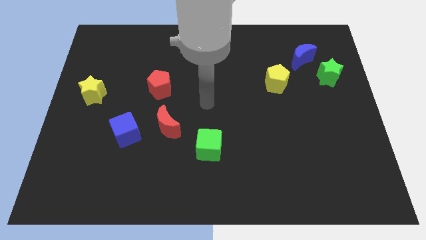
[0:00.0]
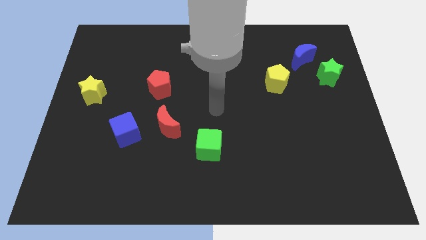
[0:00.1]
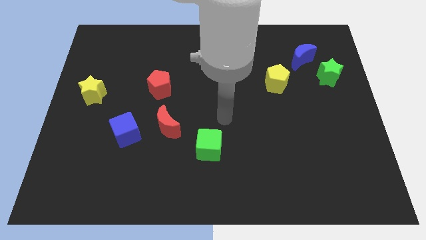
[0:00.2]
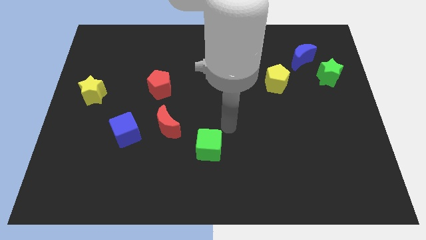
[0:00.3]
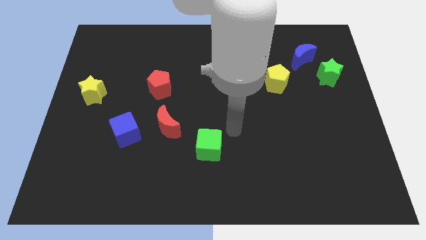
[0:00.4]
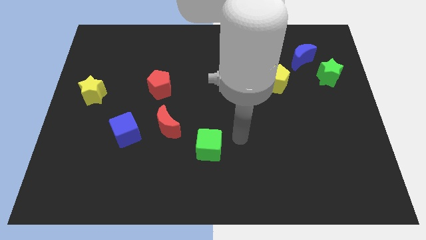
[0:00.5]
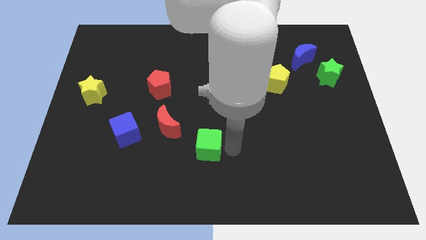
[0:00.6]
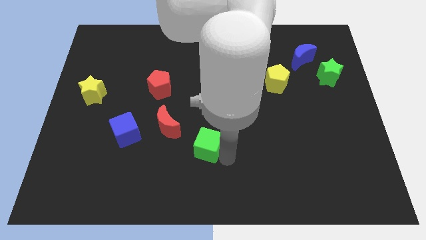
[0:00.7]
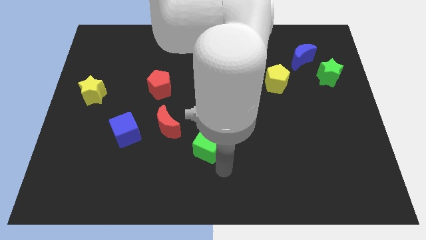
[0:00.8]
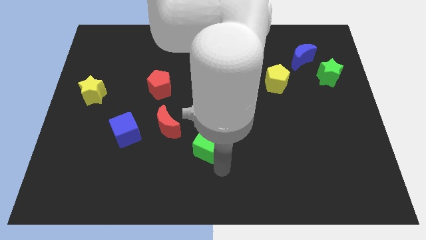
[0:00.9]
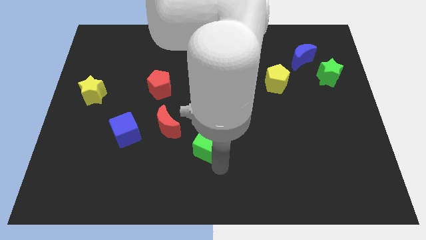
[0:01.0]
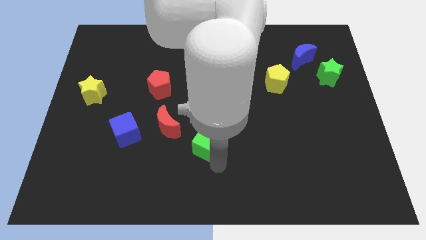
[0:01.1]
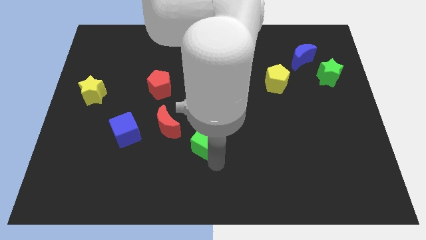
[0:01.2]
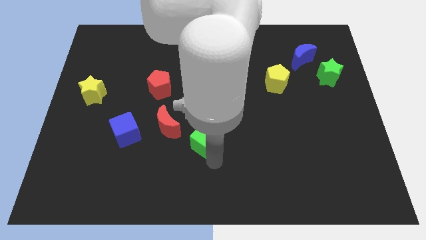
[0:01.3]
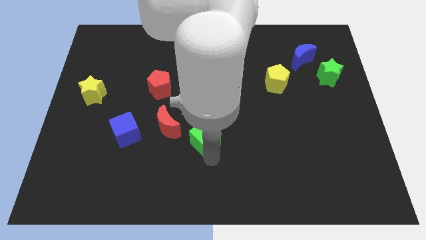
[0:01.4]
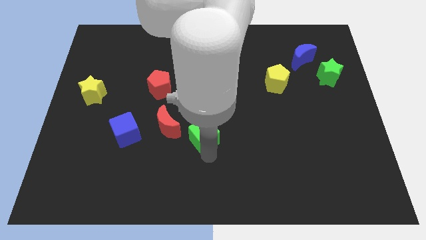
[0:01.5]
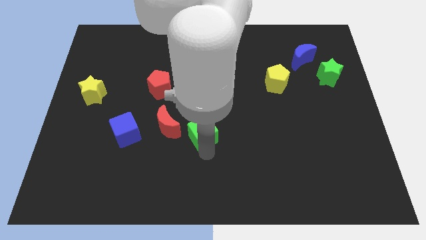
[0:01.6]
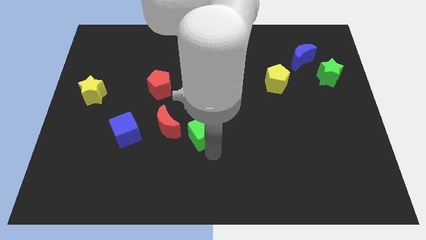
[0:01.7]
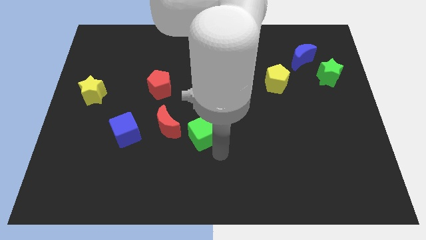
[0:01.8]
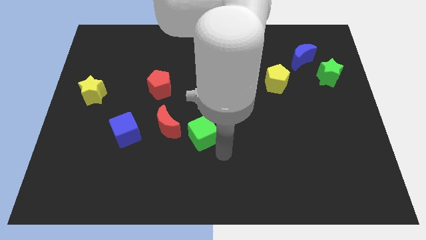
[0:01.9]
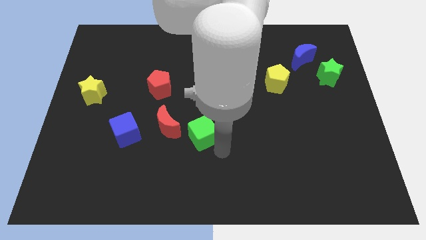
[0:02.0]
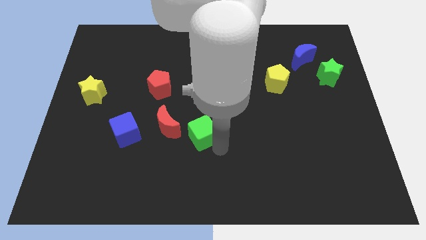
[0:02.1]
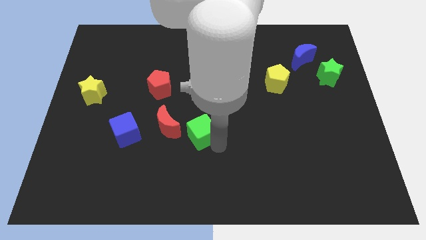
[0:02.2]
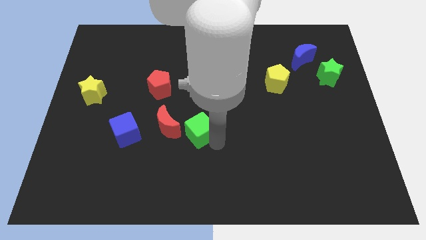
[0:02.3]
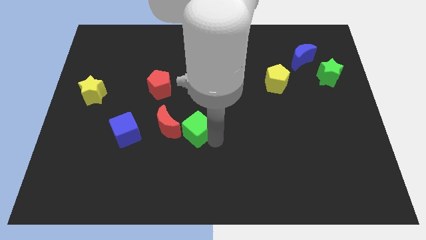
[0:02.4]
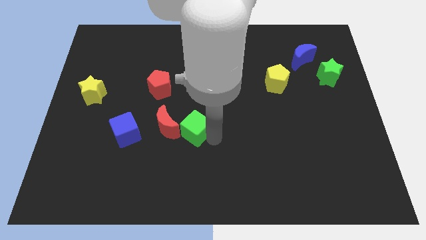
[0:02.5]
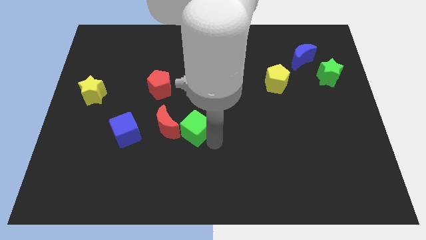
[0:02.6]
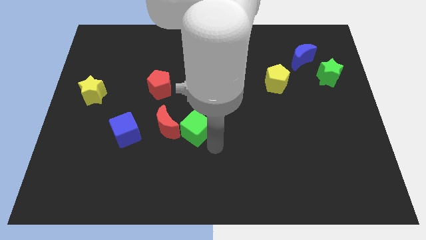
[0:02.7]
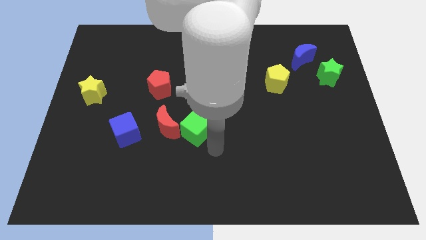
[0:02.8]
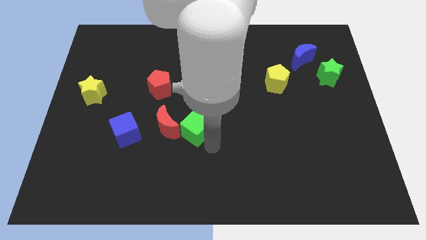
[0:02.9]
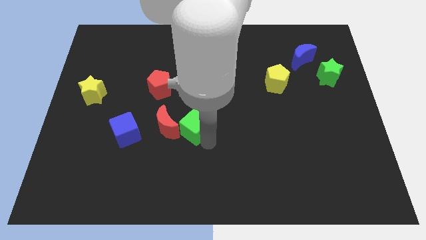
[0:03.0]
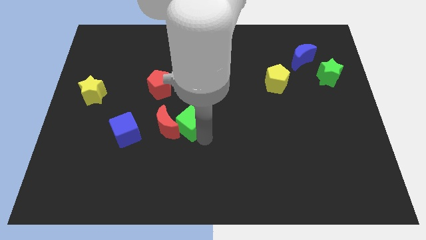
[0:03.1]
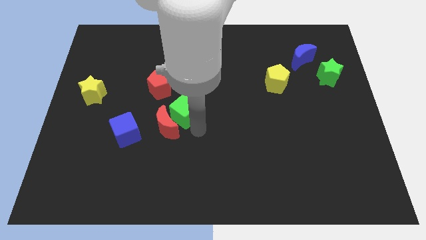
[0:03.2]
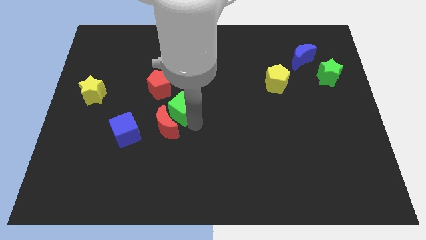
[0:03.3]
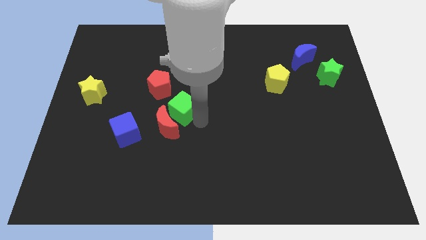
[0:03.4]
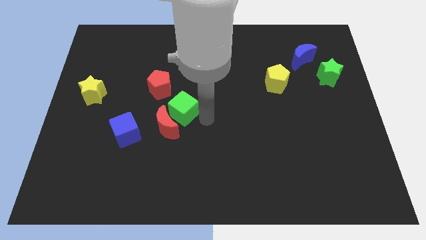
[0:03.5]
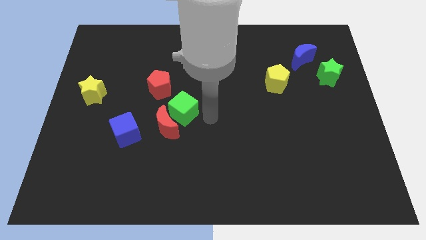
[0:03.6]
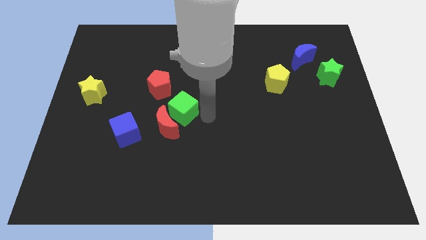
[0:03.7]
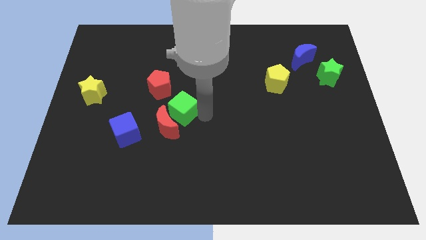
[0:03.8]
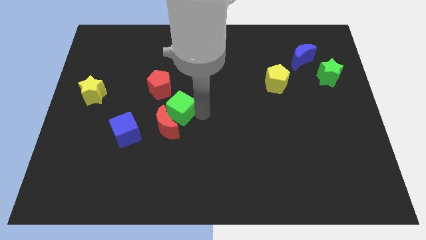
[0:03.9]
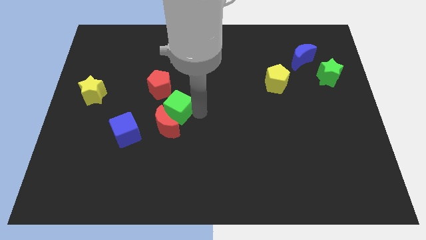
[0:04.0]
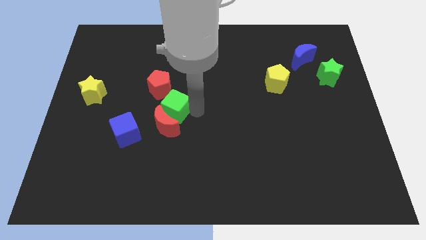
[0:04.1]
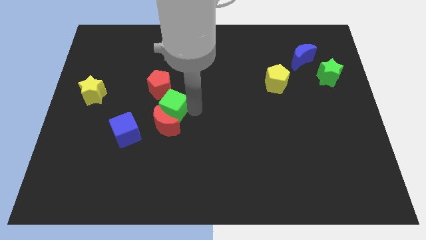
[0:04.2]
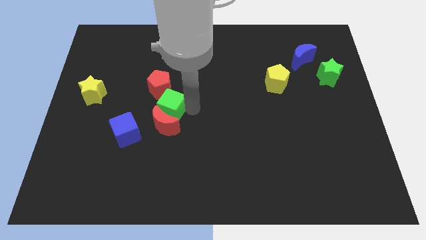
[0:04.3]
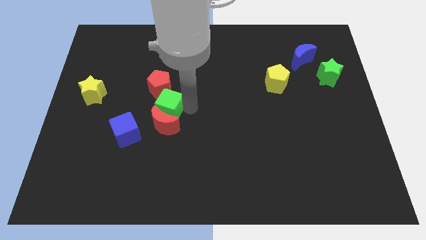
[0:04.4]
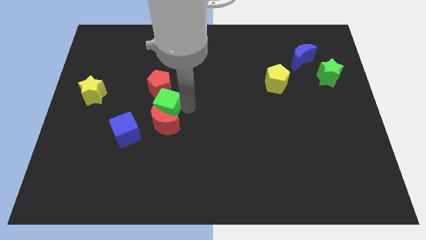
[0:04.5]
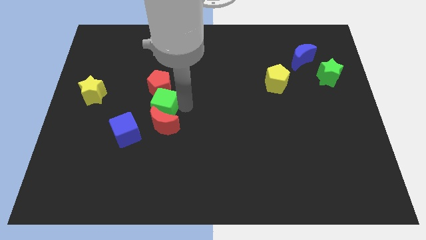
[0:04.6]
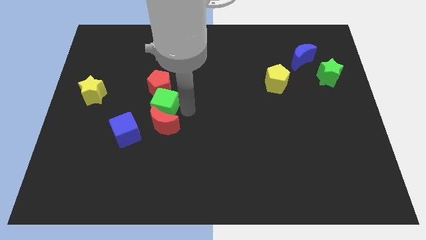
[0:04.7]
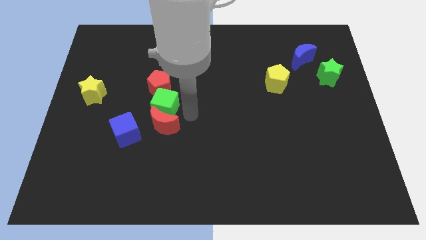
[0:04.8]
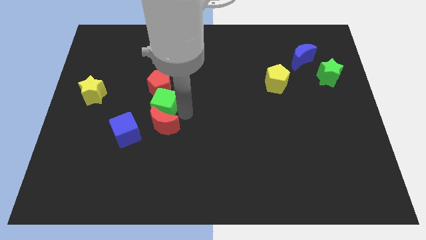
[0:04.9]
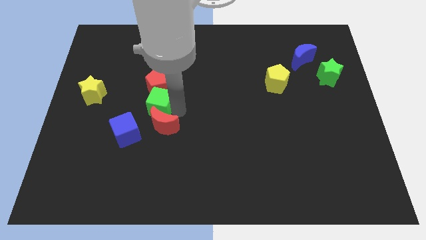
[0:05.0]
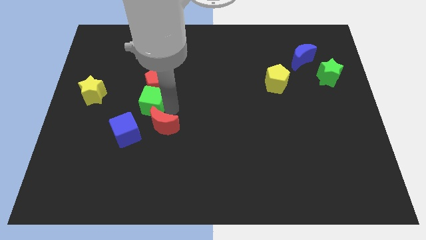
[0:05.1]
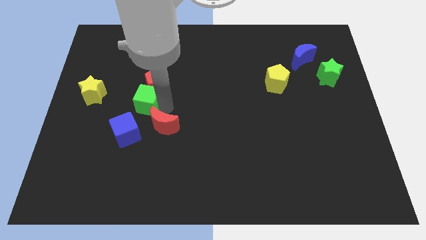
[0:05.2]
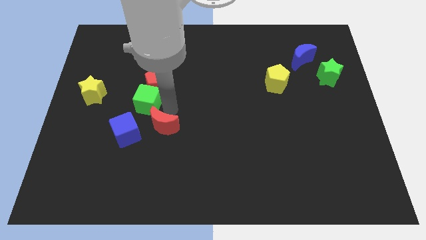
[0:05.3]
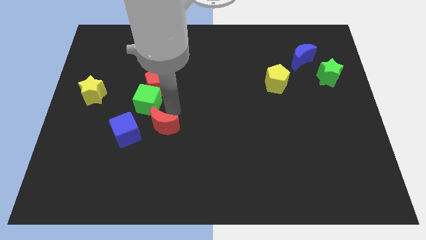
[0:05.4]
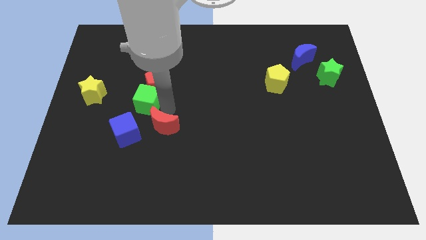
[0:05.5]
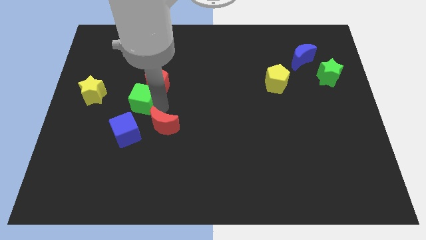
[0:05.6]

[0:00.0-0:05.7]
move the green cube upwards and to the left

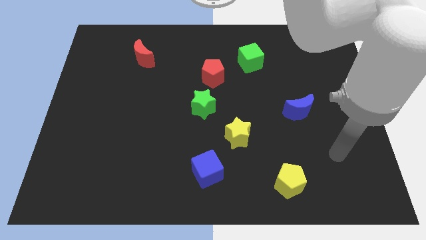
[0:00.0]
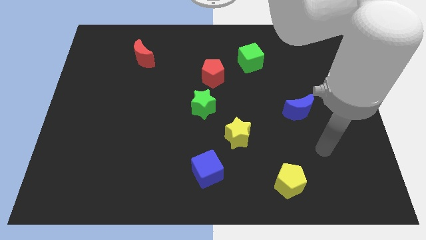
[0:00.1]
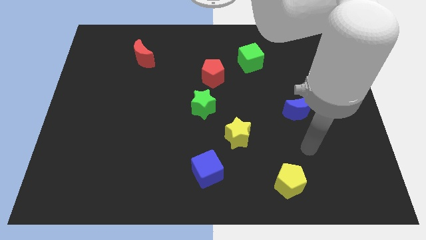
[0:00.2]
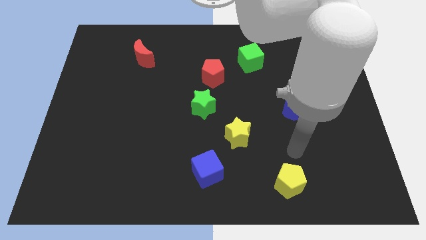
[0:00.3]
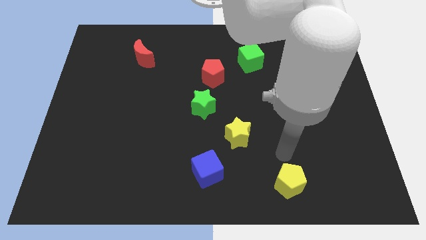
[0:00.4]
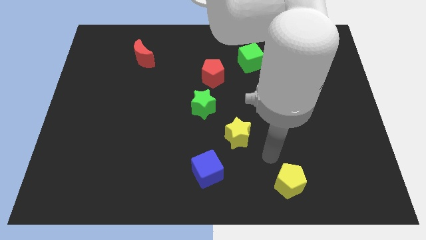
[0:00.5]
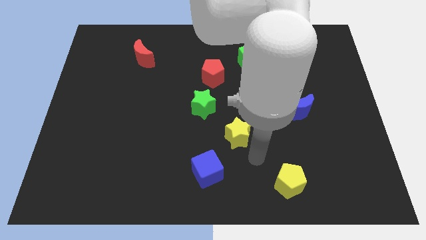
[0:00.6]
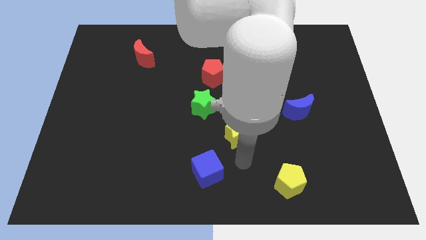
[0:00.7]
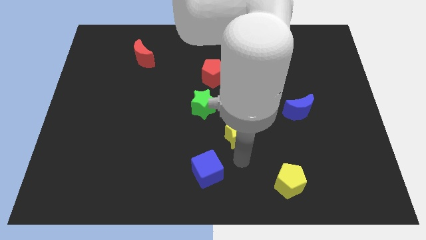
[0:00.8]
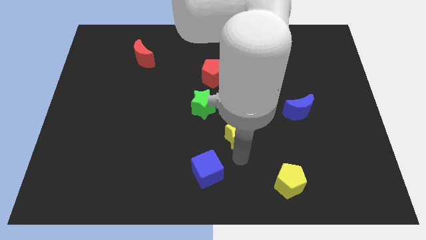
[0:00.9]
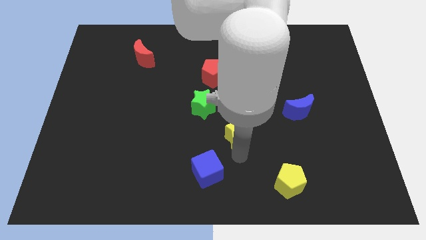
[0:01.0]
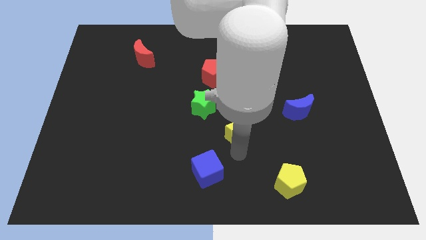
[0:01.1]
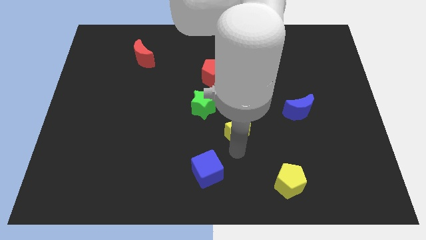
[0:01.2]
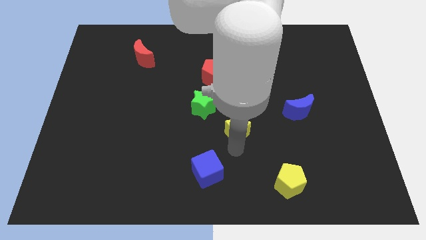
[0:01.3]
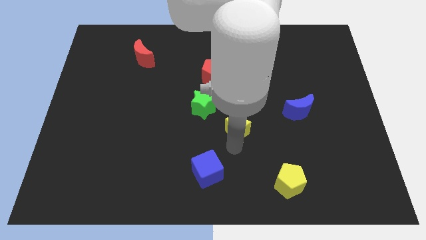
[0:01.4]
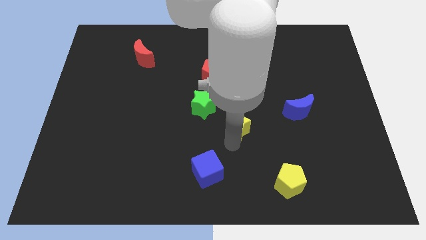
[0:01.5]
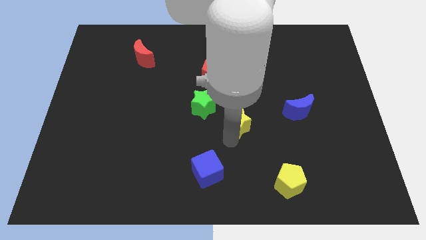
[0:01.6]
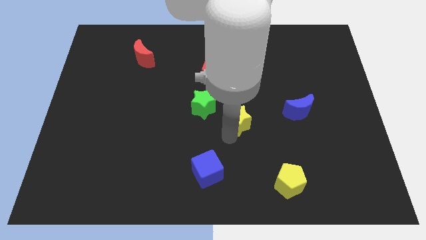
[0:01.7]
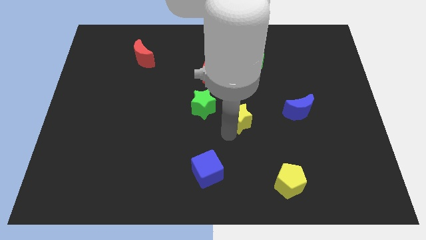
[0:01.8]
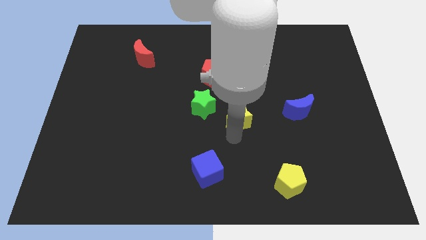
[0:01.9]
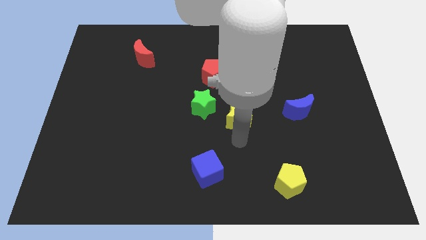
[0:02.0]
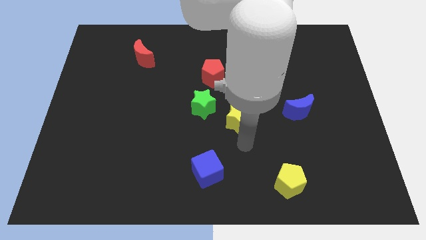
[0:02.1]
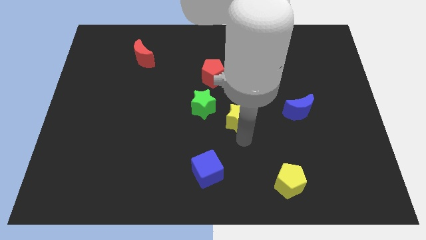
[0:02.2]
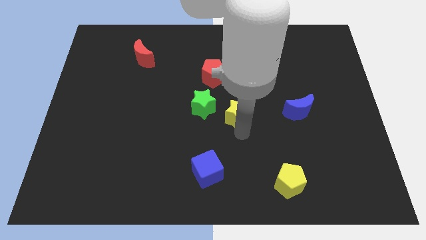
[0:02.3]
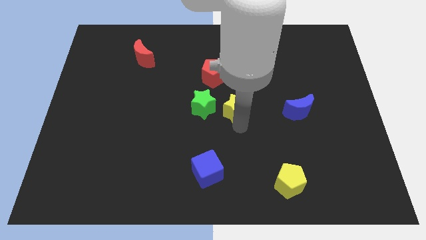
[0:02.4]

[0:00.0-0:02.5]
push the yellow star upwards slightly
